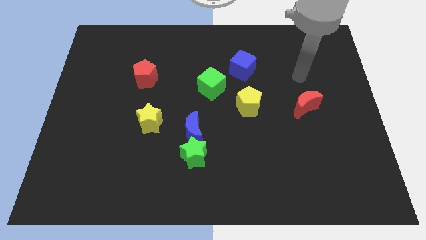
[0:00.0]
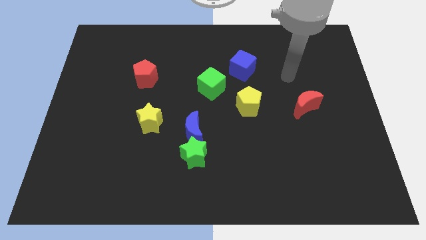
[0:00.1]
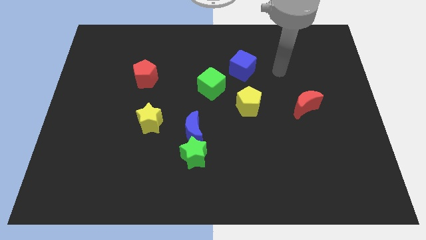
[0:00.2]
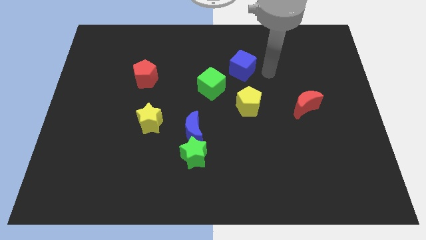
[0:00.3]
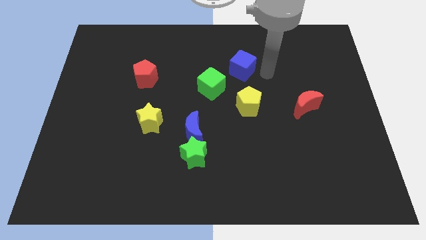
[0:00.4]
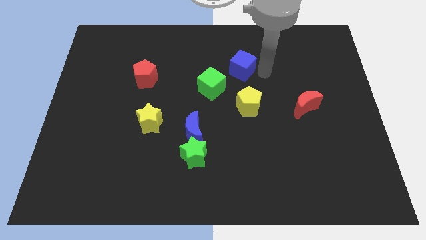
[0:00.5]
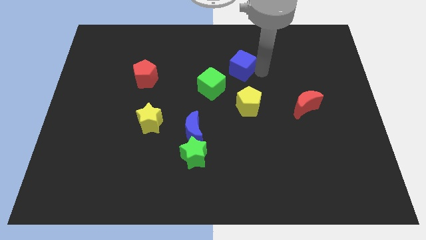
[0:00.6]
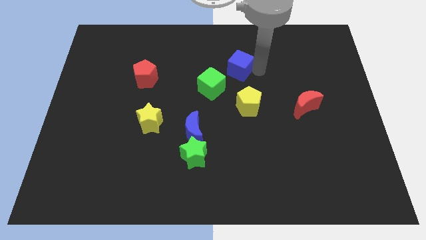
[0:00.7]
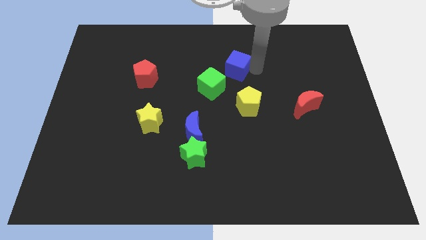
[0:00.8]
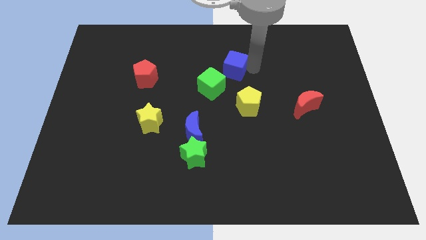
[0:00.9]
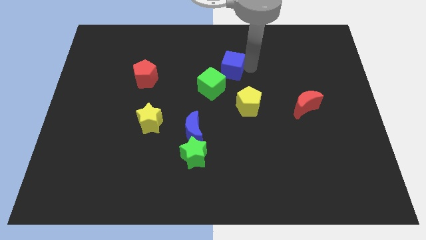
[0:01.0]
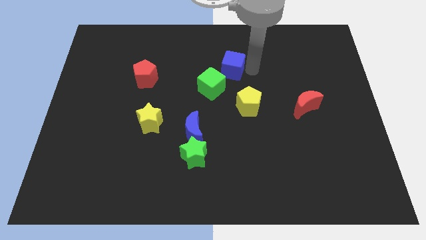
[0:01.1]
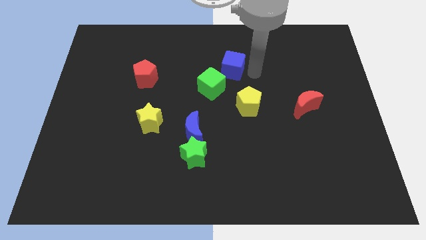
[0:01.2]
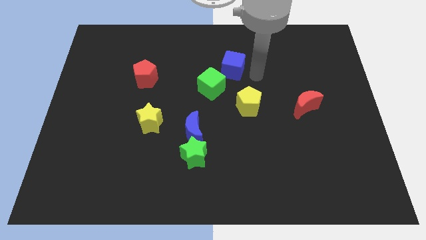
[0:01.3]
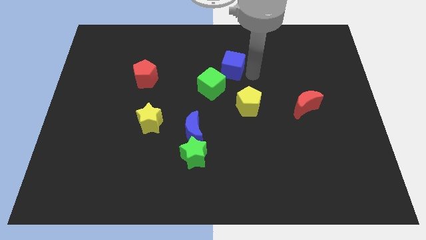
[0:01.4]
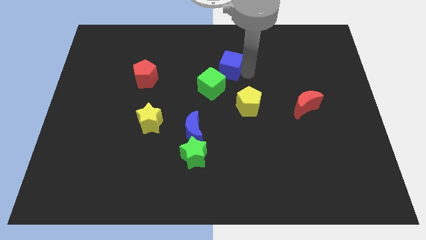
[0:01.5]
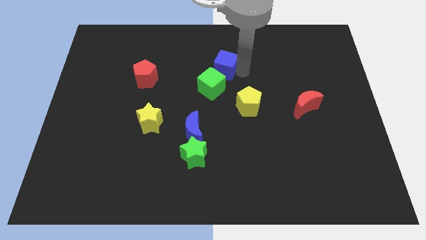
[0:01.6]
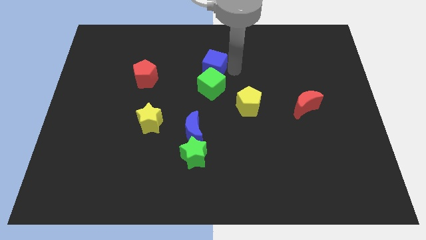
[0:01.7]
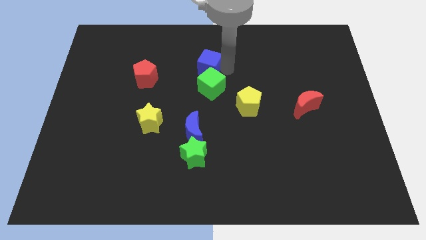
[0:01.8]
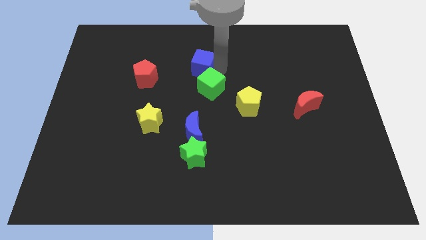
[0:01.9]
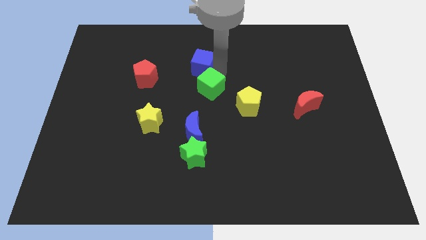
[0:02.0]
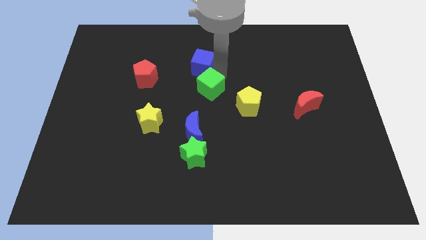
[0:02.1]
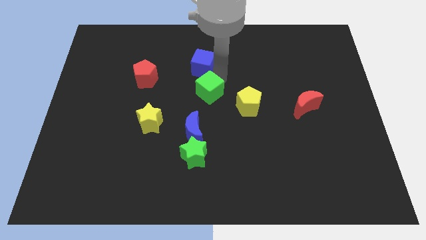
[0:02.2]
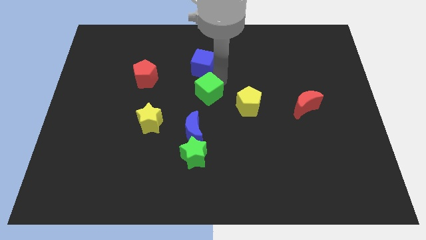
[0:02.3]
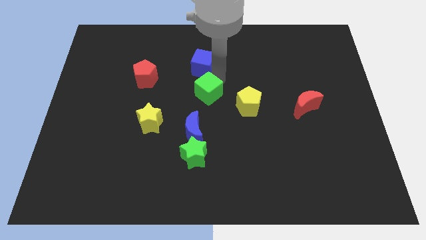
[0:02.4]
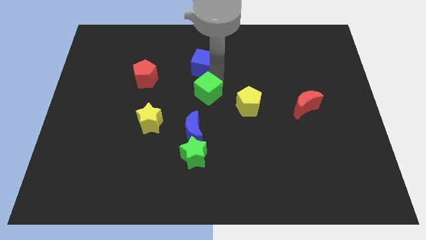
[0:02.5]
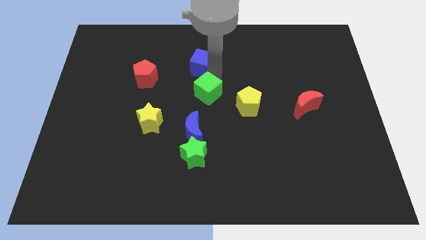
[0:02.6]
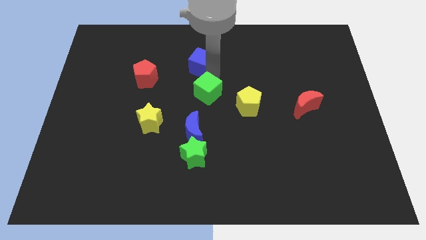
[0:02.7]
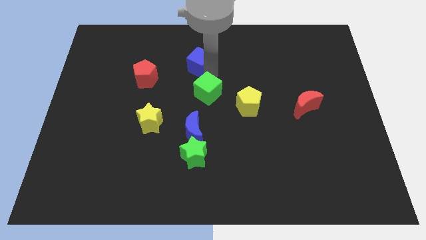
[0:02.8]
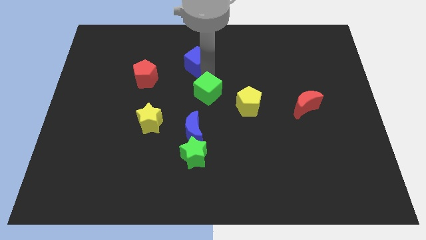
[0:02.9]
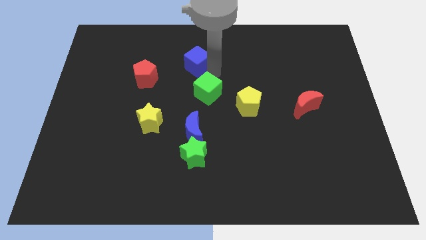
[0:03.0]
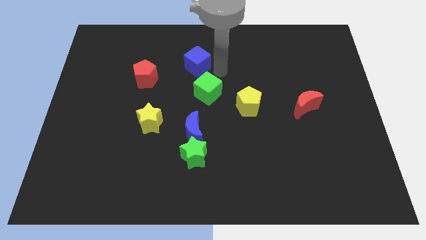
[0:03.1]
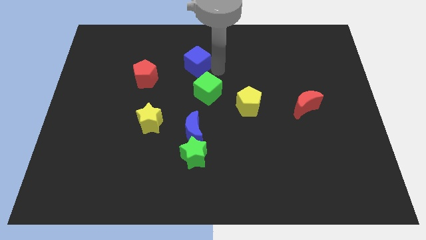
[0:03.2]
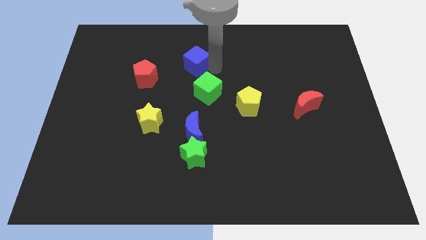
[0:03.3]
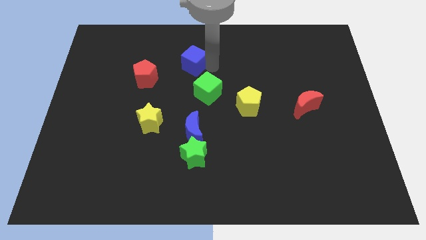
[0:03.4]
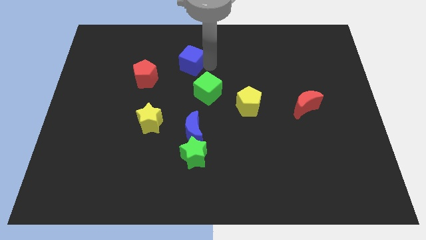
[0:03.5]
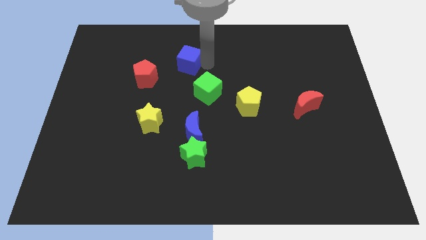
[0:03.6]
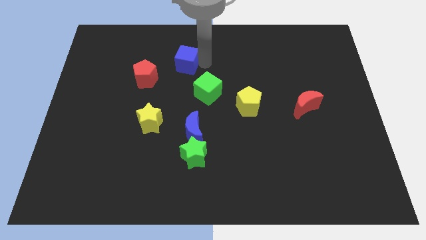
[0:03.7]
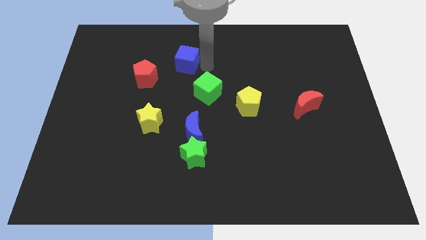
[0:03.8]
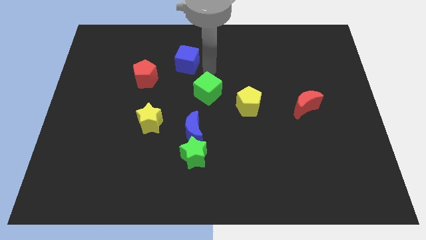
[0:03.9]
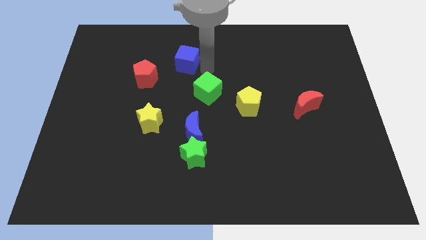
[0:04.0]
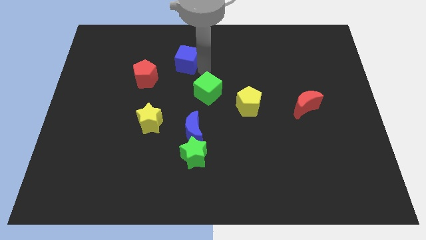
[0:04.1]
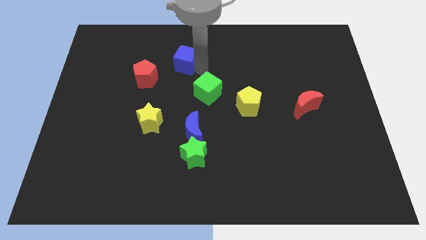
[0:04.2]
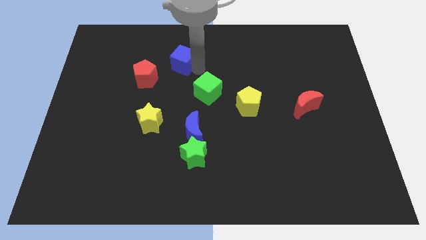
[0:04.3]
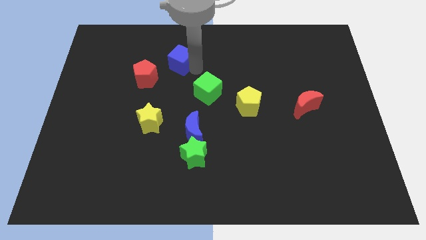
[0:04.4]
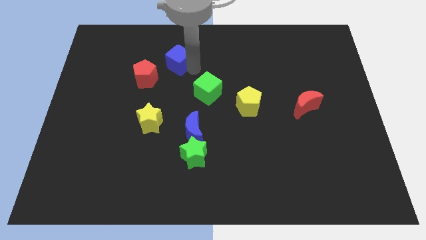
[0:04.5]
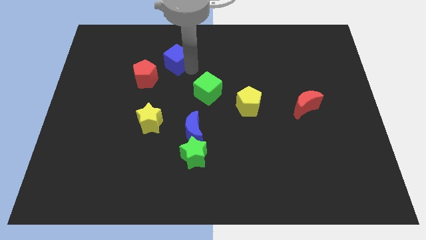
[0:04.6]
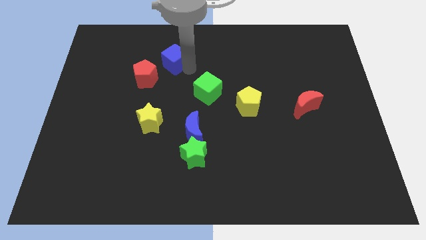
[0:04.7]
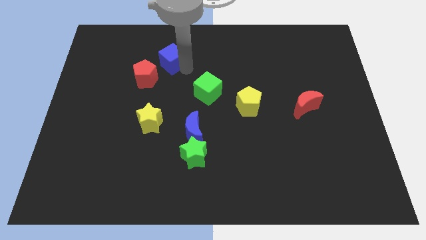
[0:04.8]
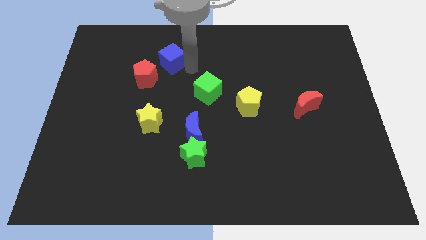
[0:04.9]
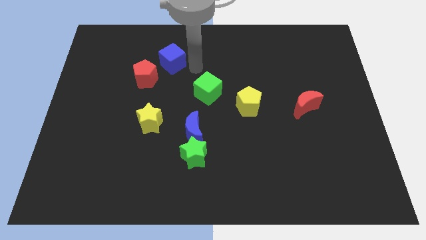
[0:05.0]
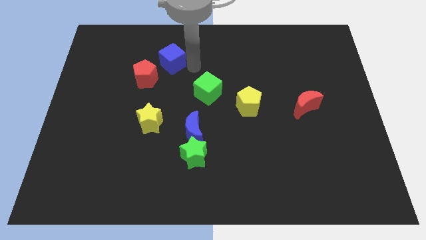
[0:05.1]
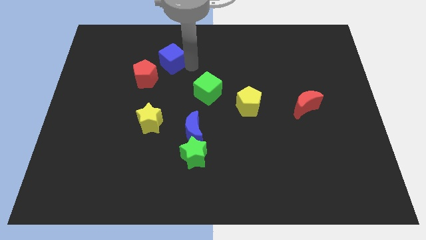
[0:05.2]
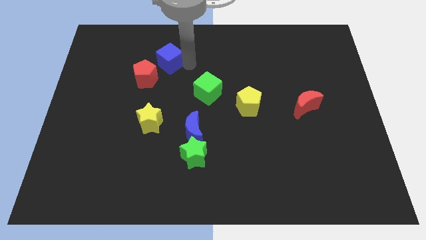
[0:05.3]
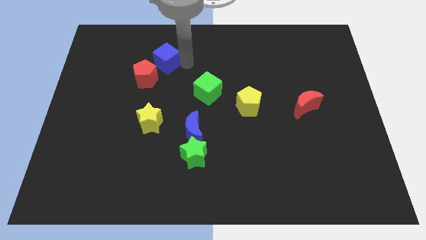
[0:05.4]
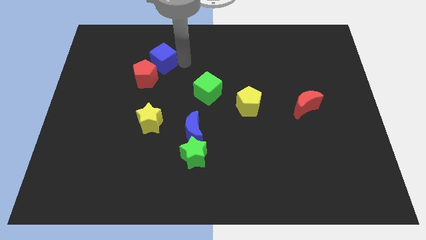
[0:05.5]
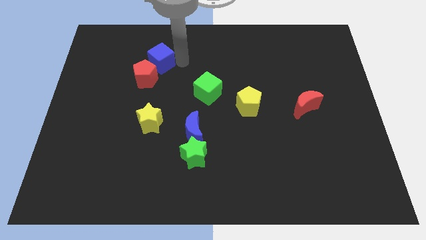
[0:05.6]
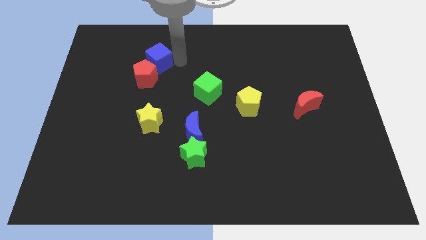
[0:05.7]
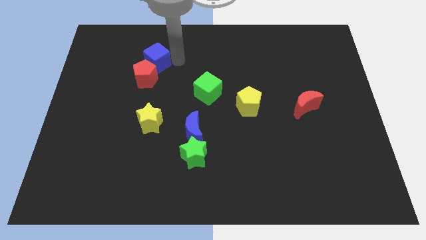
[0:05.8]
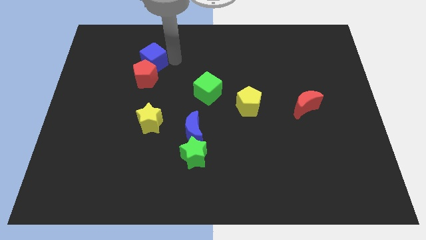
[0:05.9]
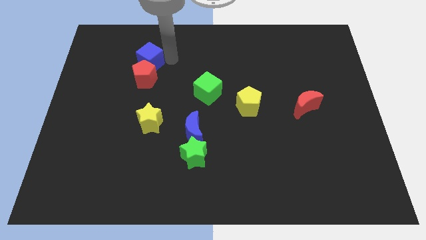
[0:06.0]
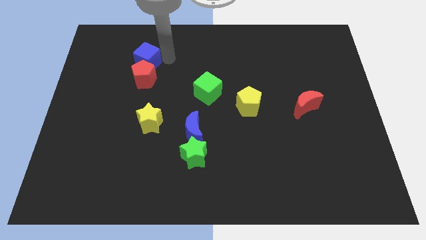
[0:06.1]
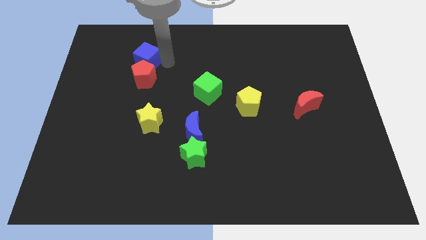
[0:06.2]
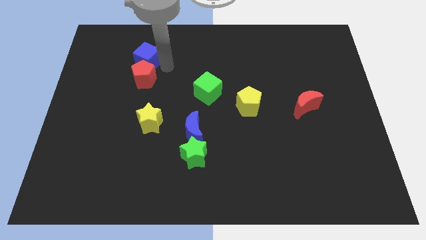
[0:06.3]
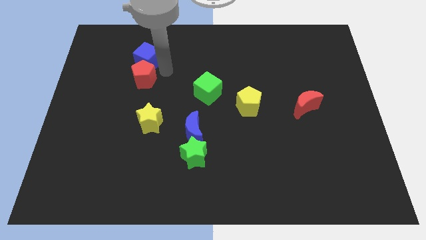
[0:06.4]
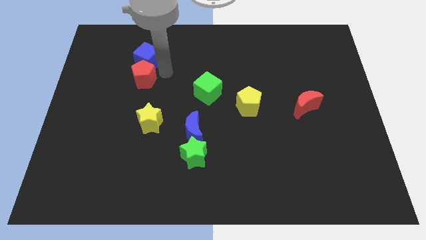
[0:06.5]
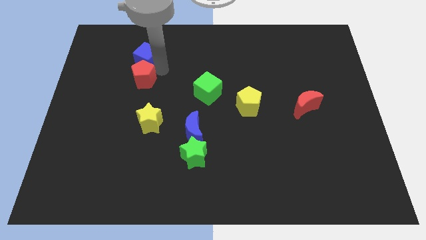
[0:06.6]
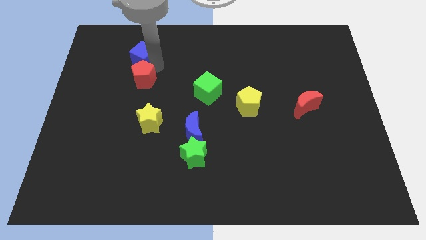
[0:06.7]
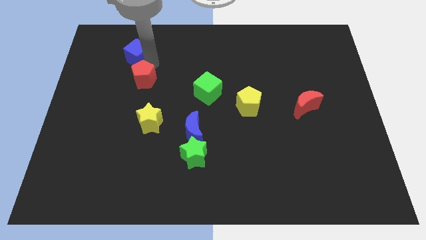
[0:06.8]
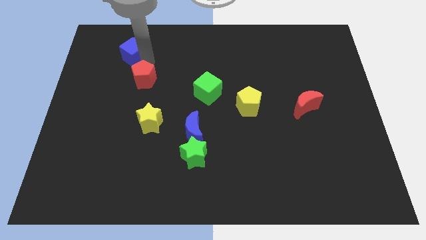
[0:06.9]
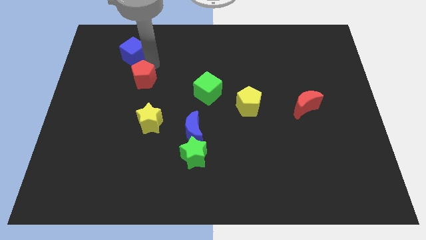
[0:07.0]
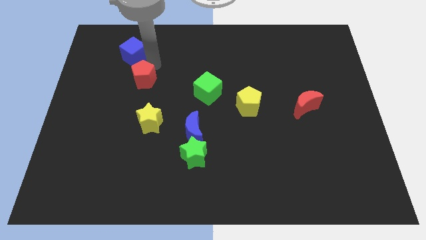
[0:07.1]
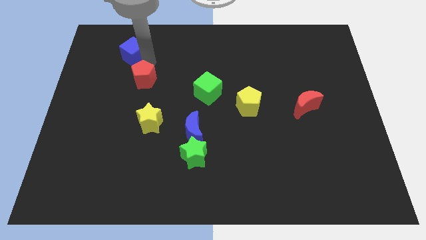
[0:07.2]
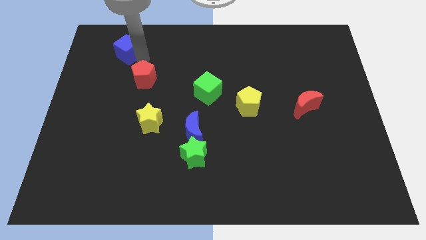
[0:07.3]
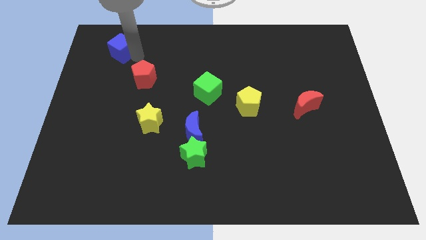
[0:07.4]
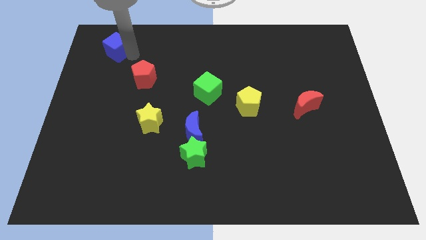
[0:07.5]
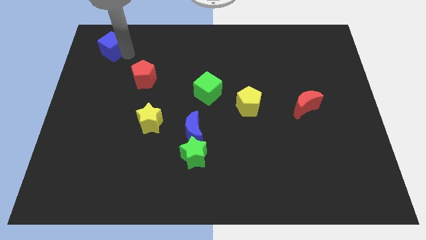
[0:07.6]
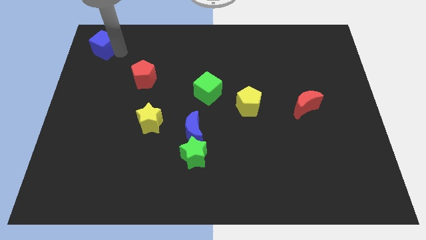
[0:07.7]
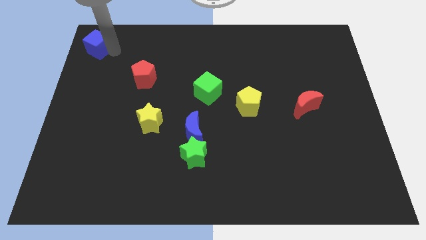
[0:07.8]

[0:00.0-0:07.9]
move the blue cube to the upper left corner
